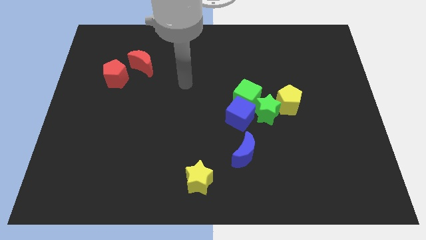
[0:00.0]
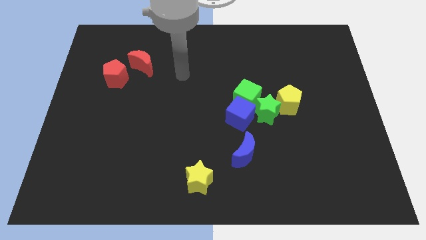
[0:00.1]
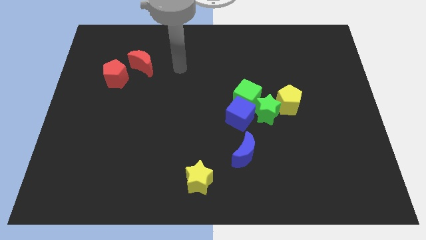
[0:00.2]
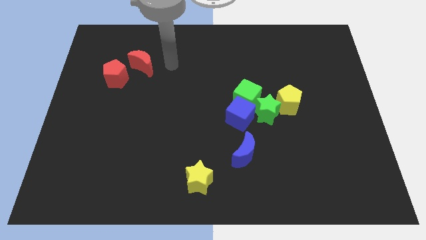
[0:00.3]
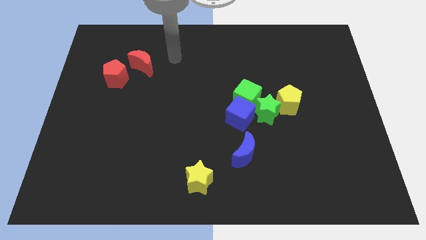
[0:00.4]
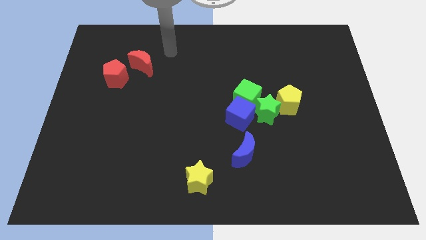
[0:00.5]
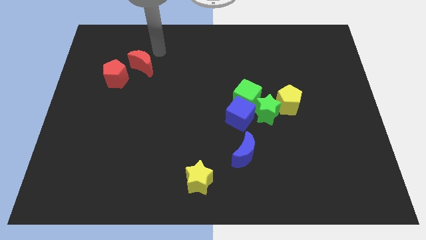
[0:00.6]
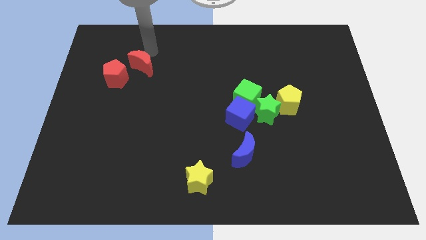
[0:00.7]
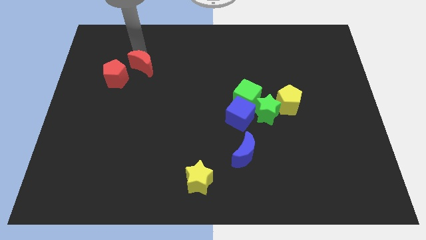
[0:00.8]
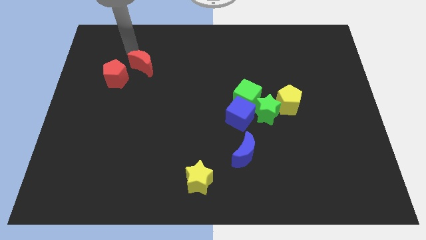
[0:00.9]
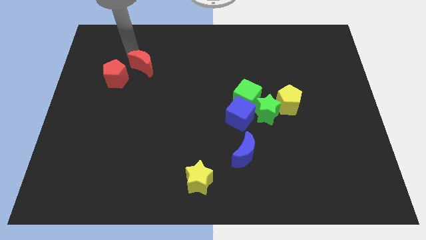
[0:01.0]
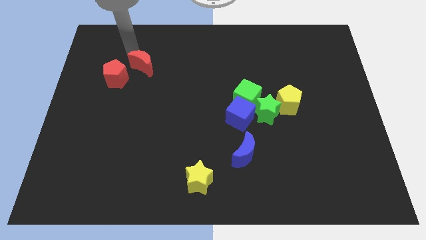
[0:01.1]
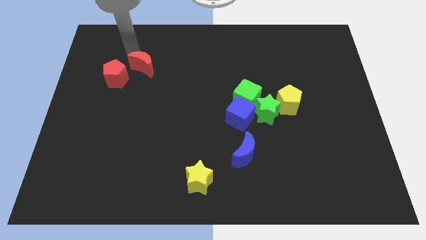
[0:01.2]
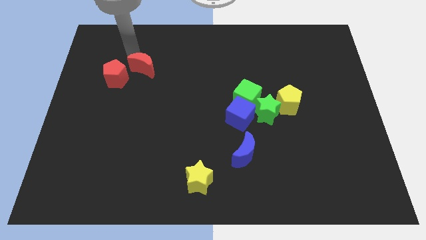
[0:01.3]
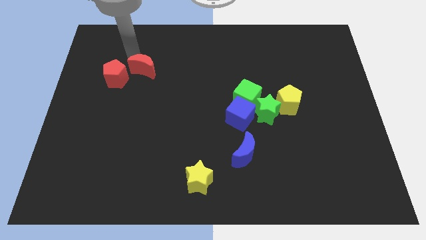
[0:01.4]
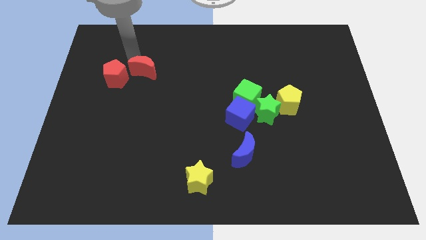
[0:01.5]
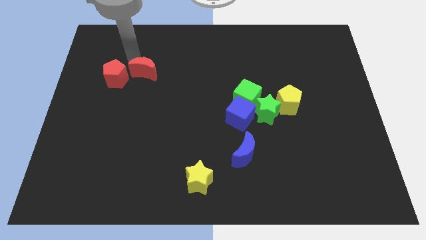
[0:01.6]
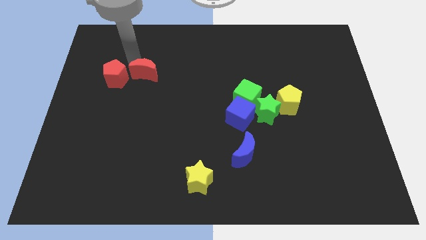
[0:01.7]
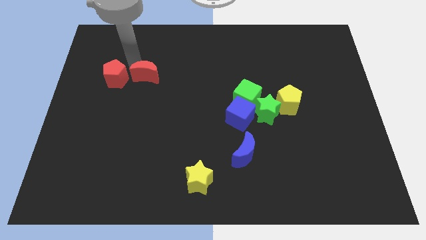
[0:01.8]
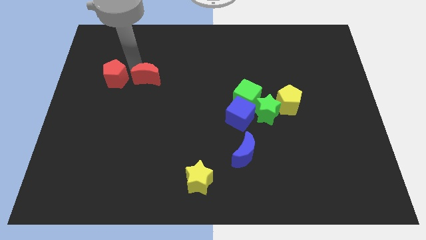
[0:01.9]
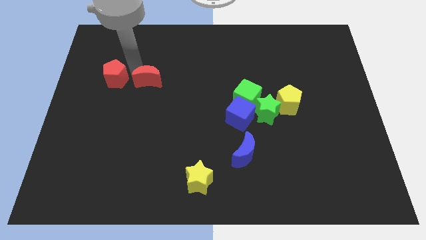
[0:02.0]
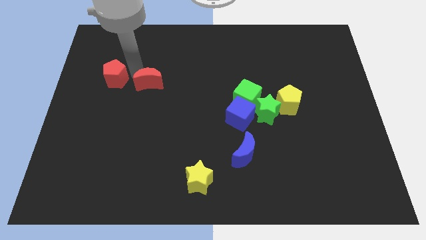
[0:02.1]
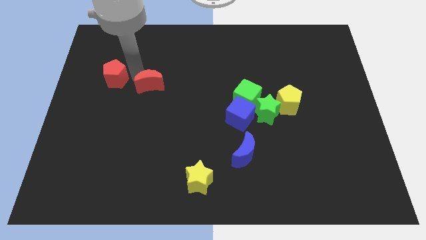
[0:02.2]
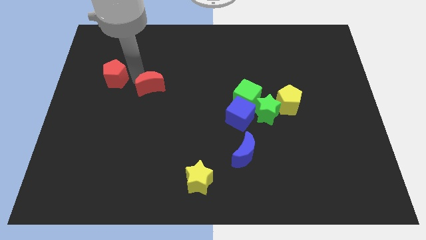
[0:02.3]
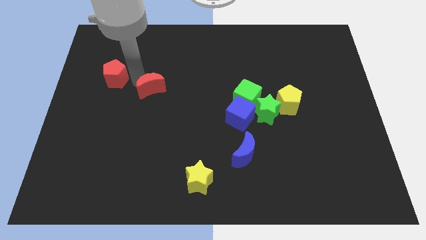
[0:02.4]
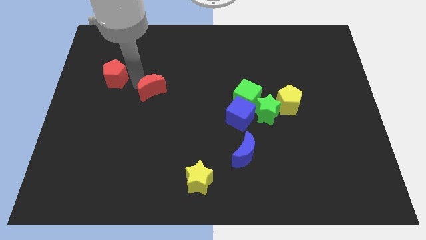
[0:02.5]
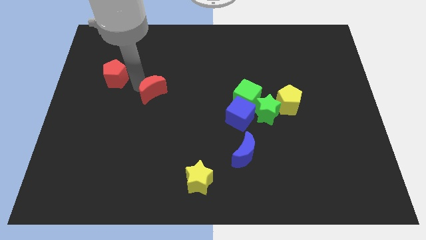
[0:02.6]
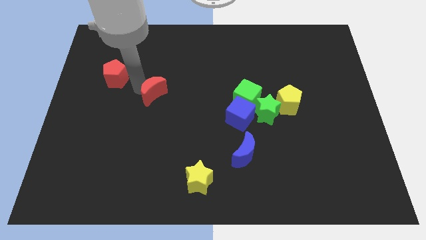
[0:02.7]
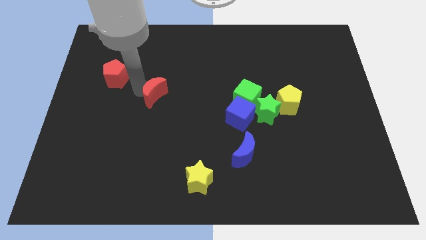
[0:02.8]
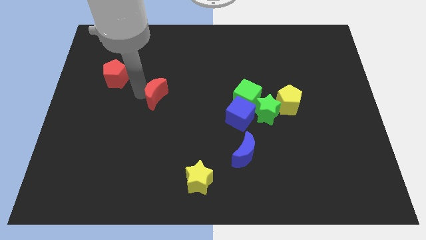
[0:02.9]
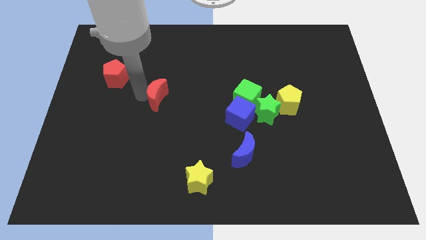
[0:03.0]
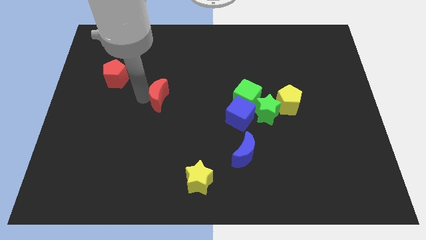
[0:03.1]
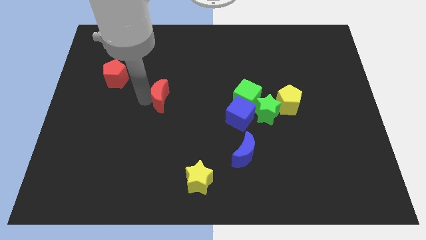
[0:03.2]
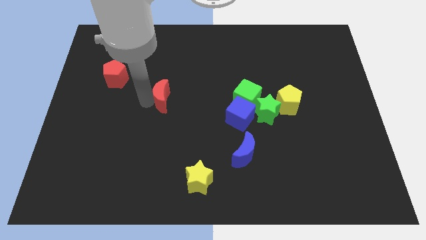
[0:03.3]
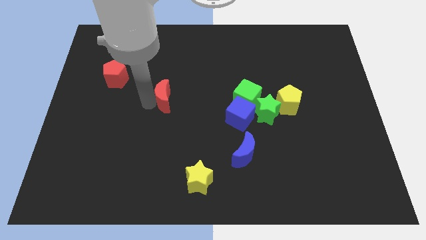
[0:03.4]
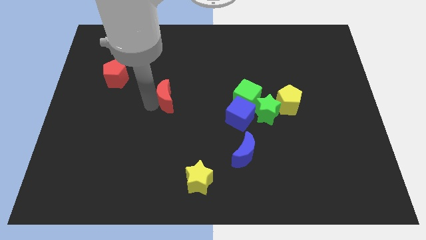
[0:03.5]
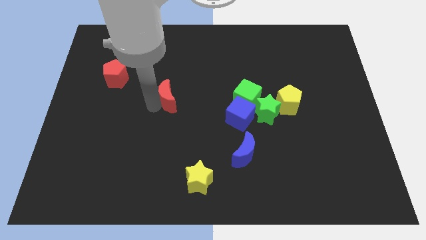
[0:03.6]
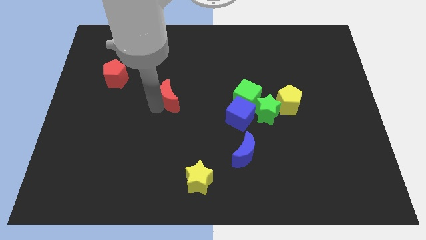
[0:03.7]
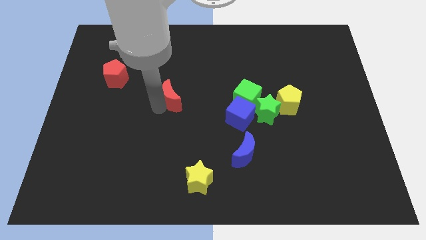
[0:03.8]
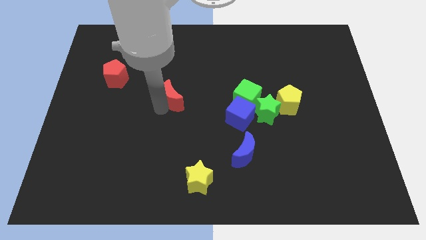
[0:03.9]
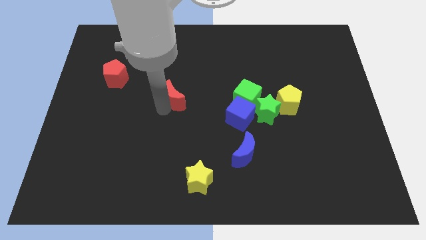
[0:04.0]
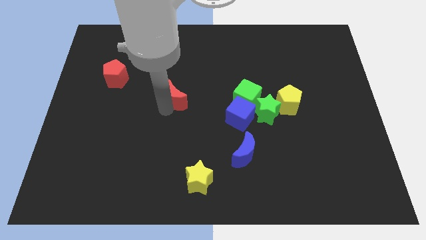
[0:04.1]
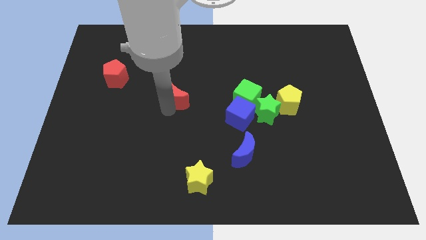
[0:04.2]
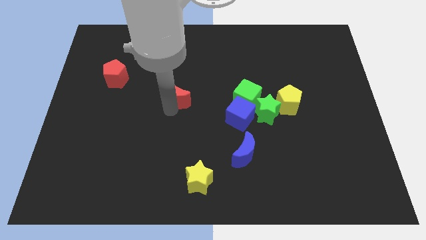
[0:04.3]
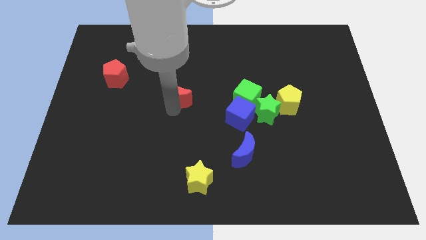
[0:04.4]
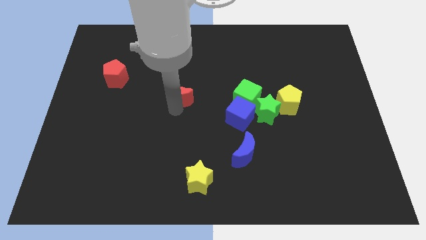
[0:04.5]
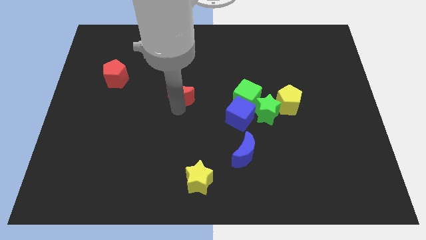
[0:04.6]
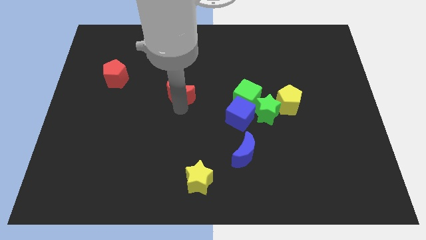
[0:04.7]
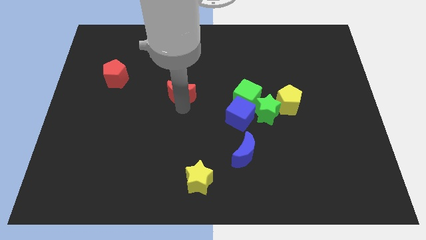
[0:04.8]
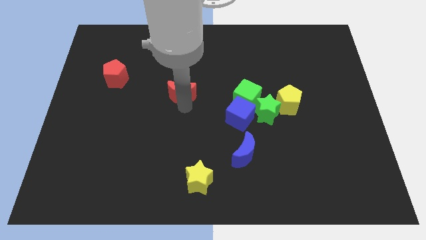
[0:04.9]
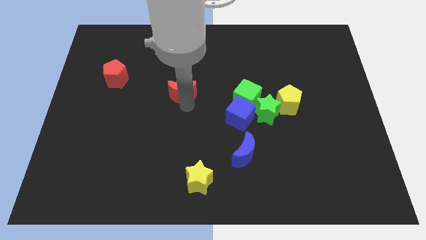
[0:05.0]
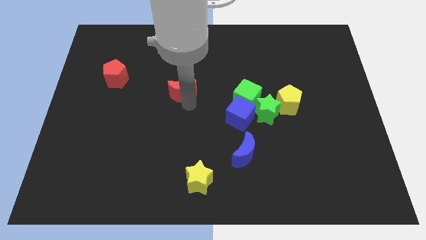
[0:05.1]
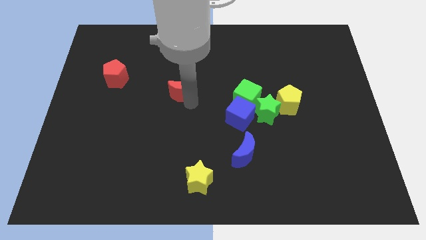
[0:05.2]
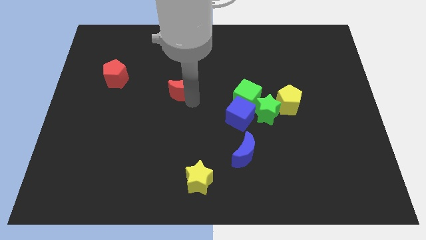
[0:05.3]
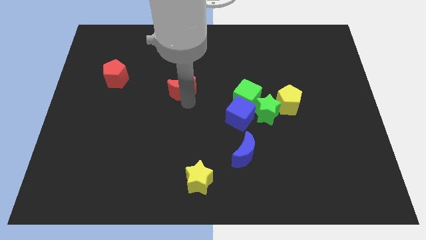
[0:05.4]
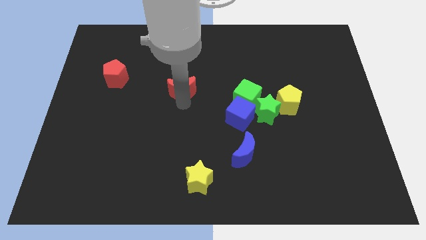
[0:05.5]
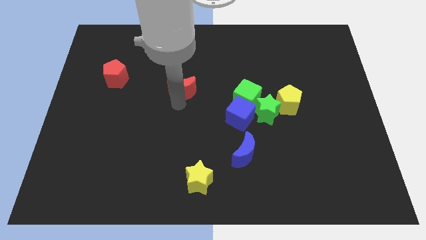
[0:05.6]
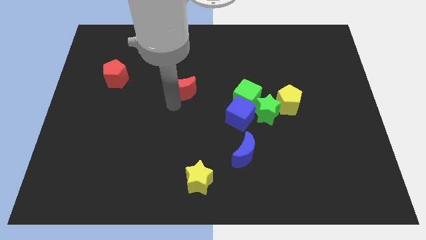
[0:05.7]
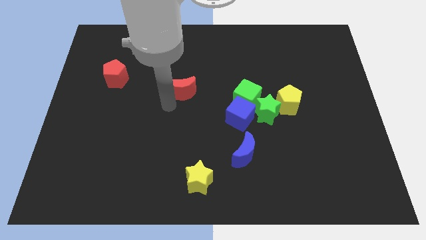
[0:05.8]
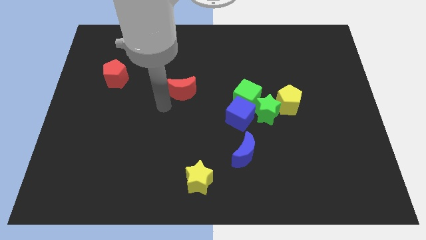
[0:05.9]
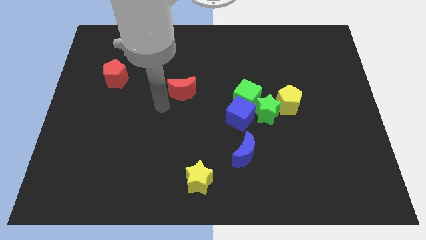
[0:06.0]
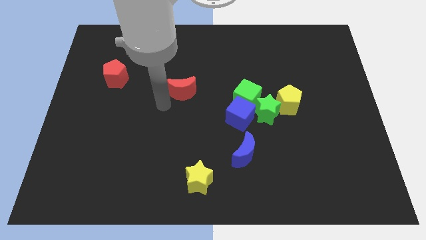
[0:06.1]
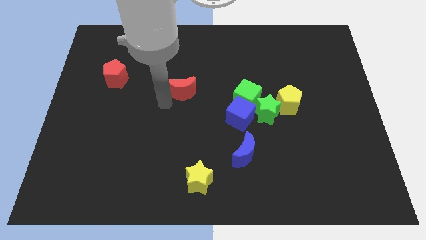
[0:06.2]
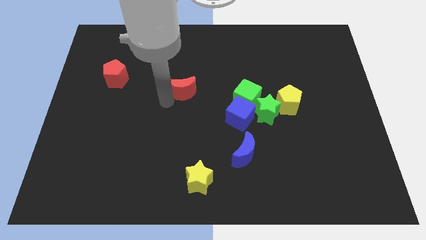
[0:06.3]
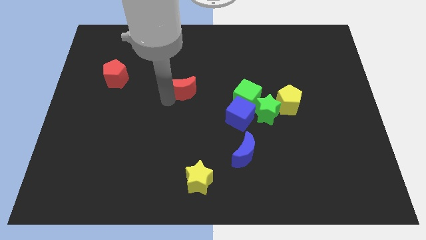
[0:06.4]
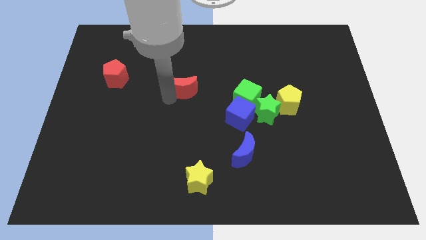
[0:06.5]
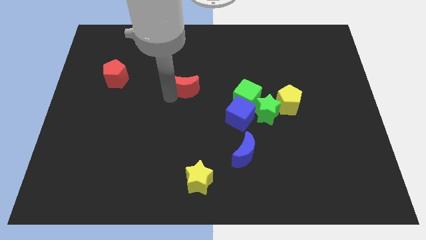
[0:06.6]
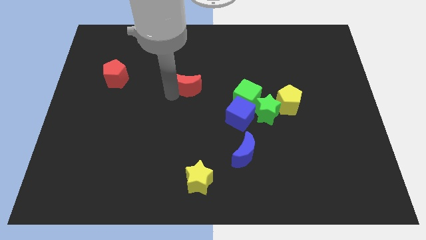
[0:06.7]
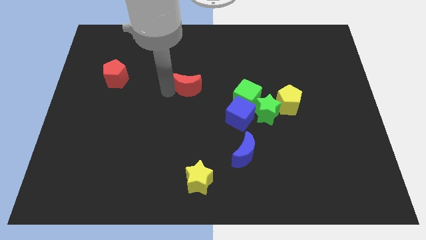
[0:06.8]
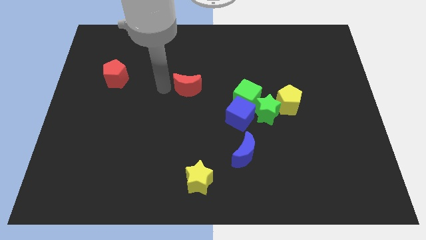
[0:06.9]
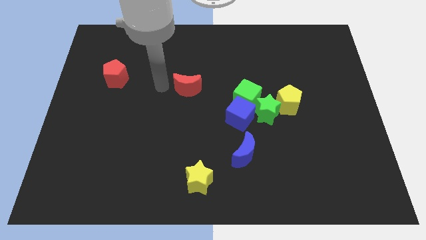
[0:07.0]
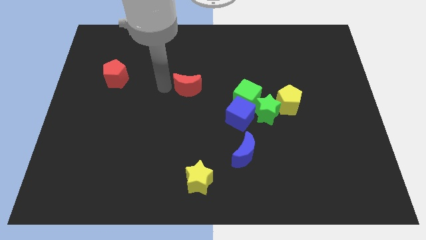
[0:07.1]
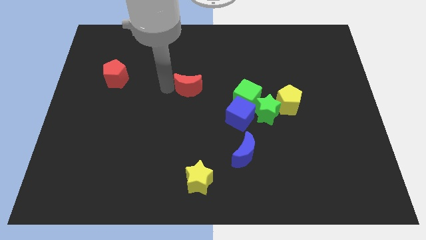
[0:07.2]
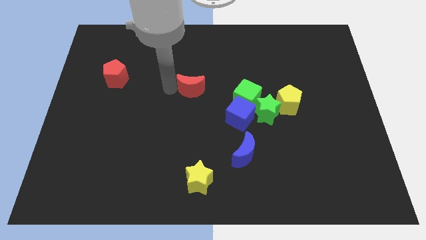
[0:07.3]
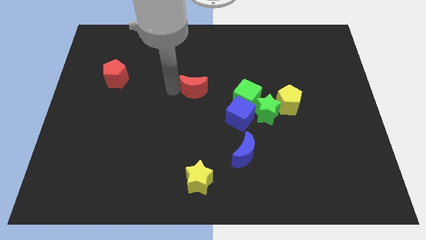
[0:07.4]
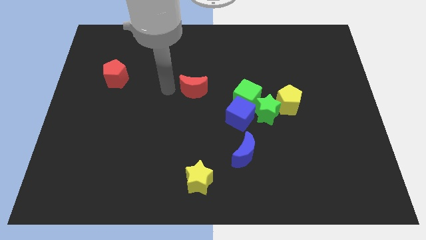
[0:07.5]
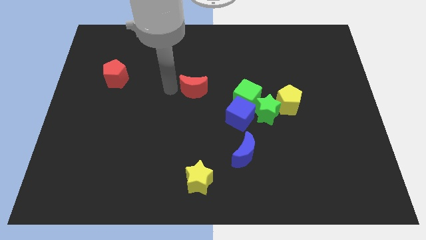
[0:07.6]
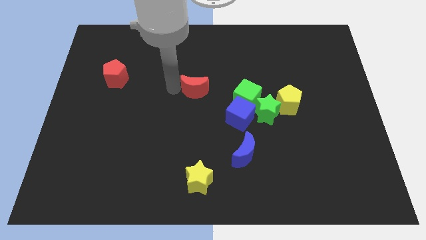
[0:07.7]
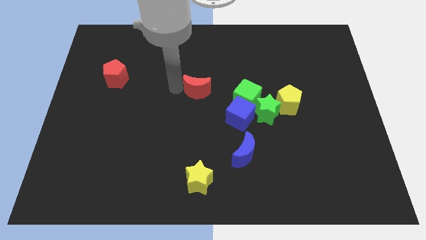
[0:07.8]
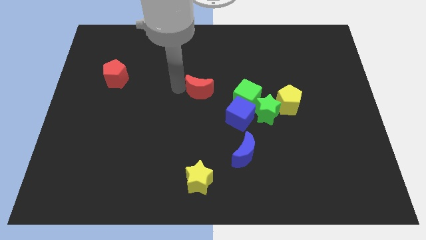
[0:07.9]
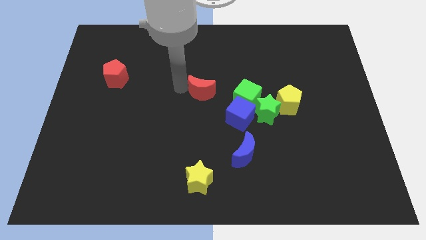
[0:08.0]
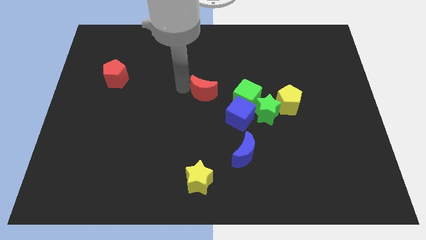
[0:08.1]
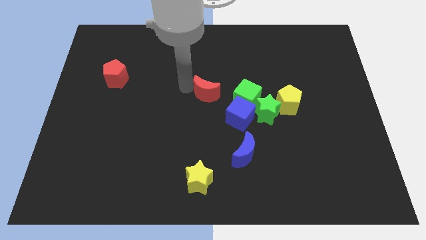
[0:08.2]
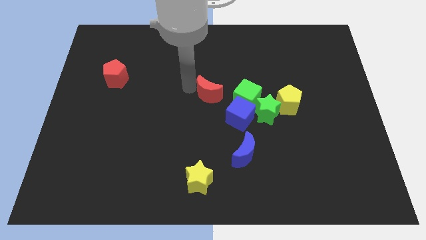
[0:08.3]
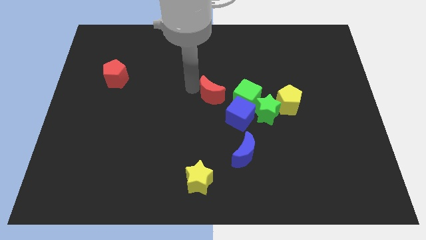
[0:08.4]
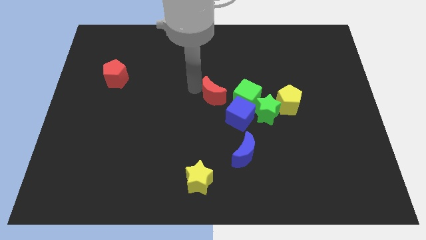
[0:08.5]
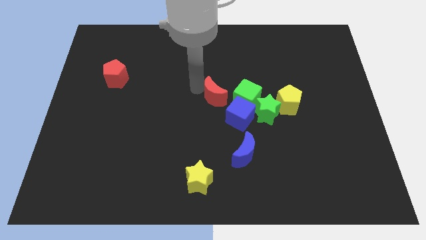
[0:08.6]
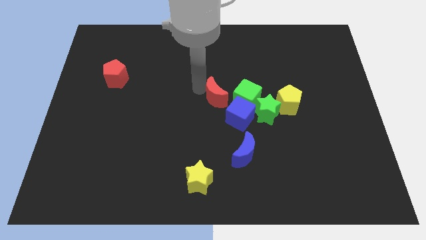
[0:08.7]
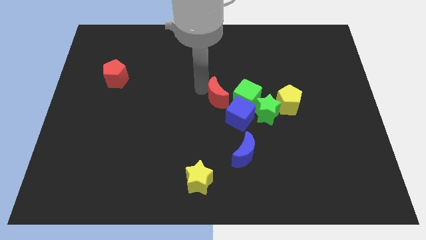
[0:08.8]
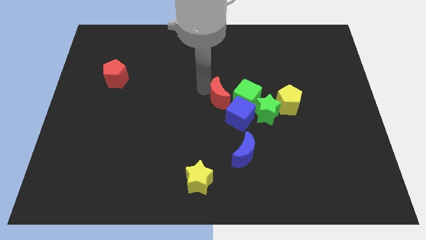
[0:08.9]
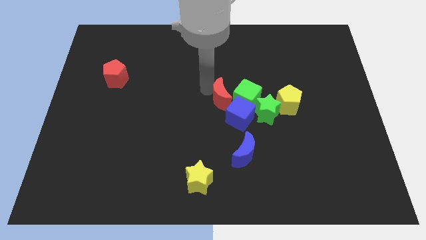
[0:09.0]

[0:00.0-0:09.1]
push the red moon towards the green cube
